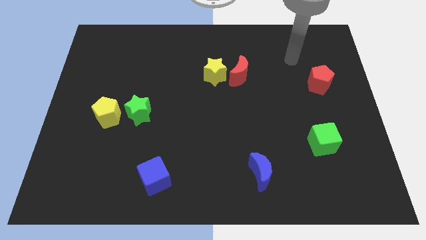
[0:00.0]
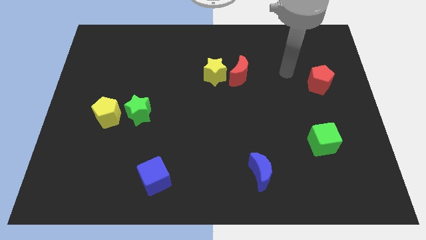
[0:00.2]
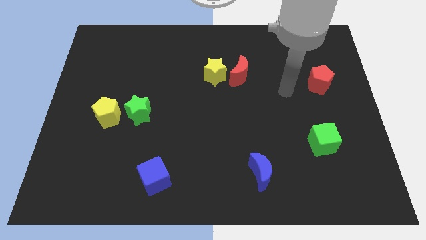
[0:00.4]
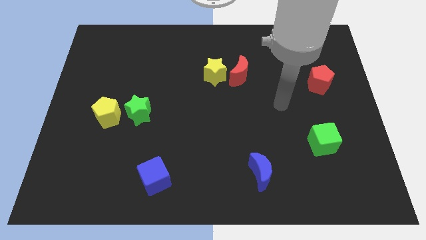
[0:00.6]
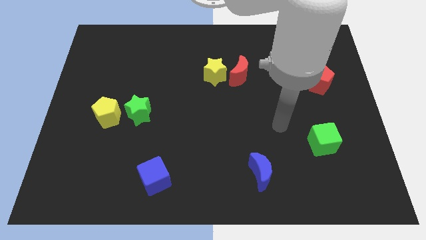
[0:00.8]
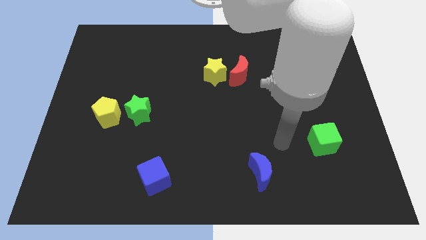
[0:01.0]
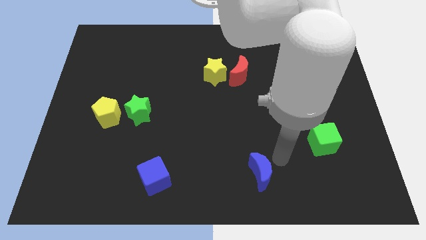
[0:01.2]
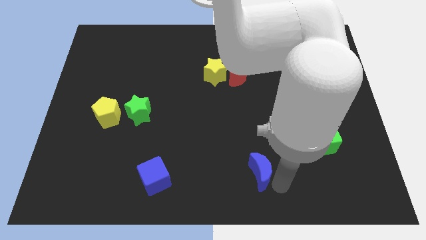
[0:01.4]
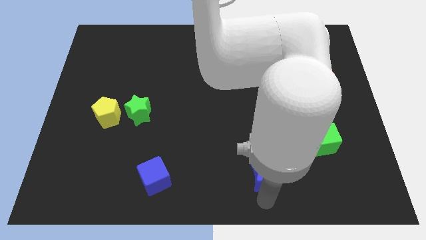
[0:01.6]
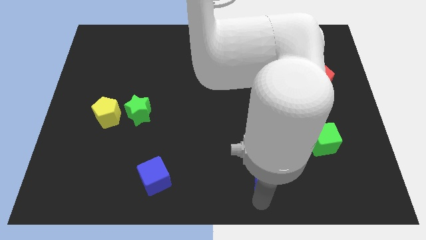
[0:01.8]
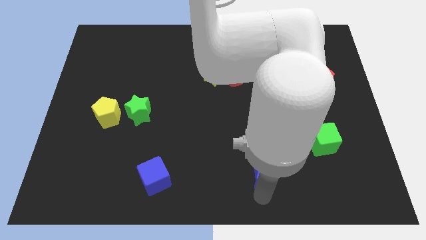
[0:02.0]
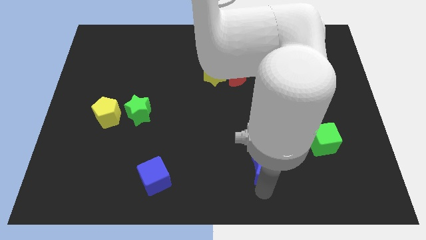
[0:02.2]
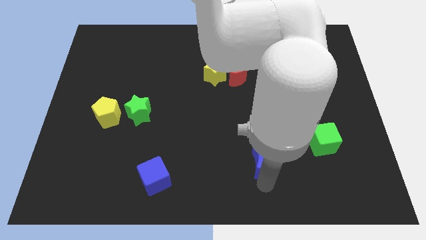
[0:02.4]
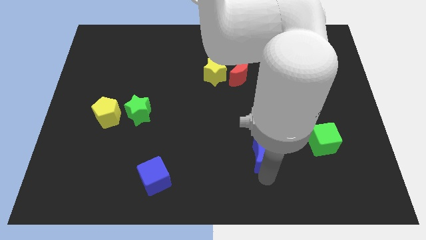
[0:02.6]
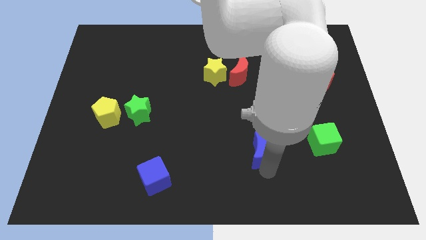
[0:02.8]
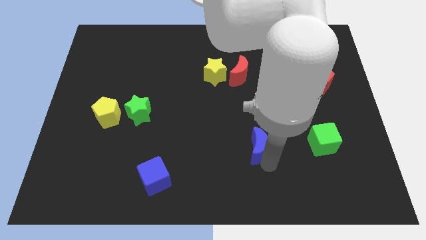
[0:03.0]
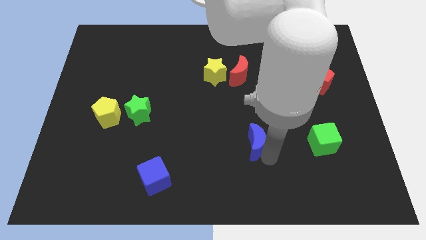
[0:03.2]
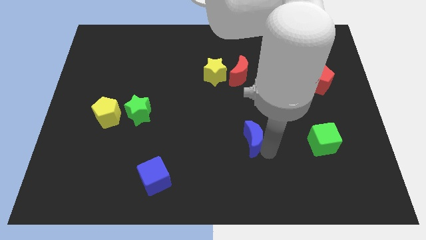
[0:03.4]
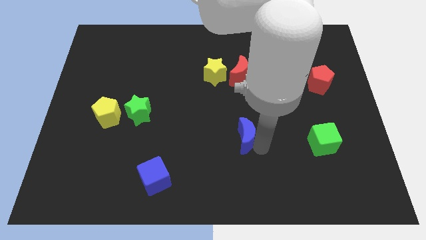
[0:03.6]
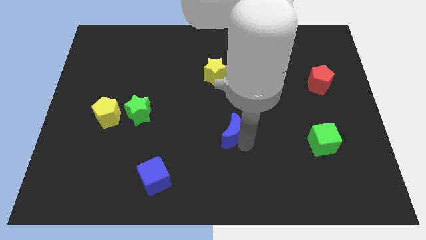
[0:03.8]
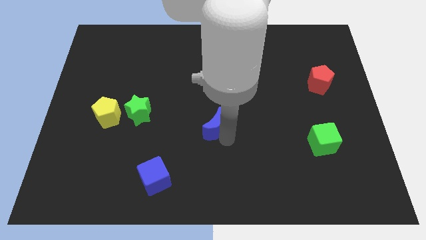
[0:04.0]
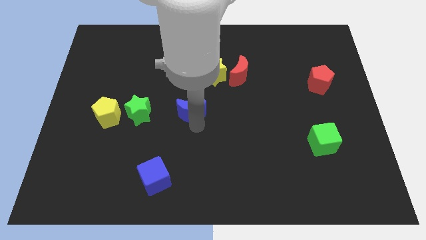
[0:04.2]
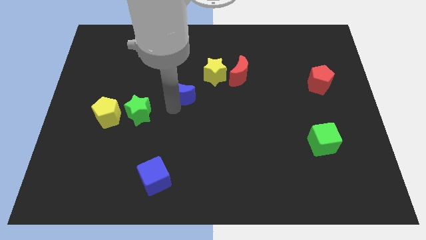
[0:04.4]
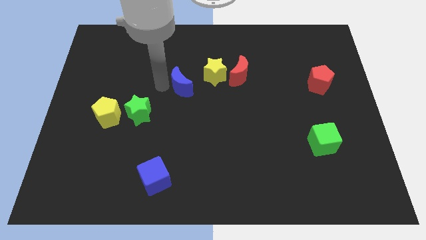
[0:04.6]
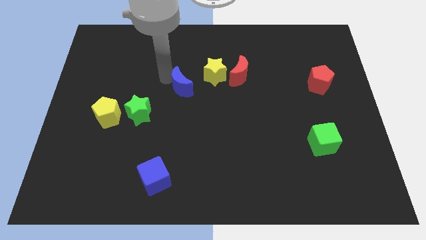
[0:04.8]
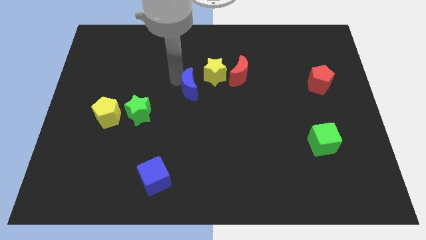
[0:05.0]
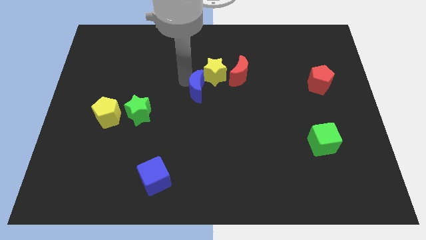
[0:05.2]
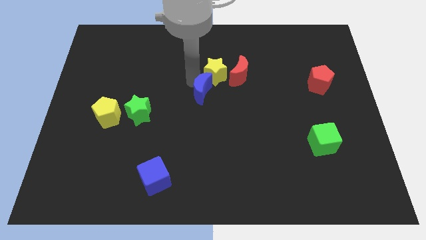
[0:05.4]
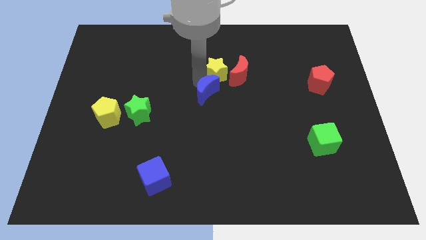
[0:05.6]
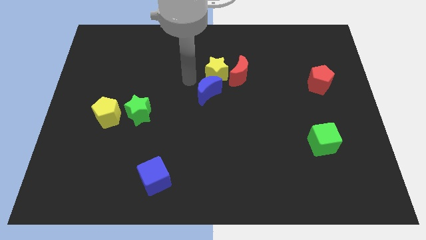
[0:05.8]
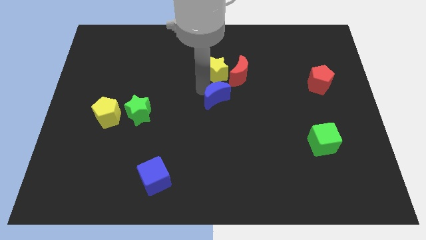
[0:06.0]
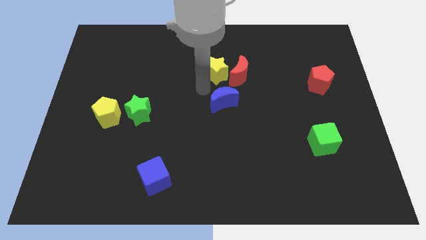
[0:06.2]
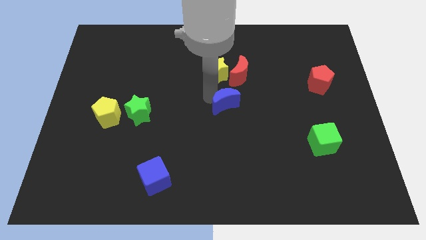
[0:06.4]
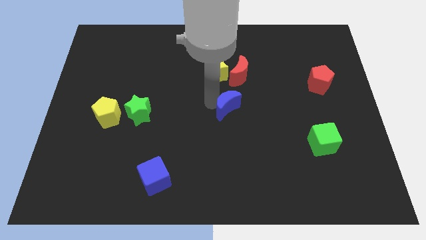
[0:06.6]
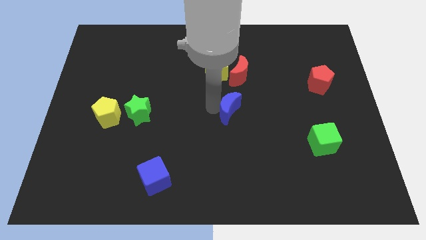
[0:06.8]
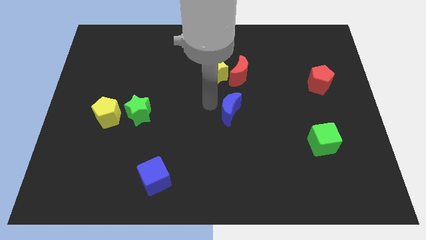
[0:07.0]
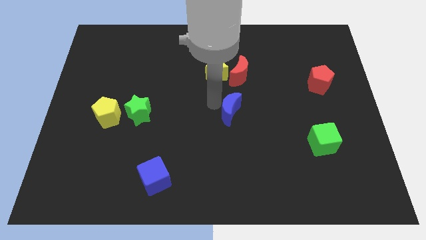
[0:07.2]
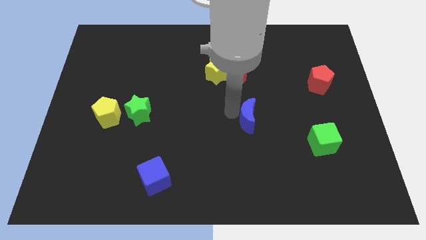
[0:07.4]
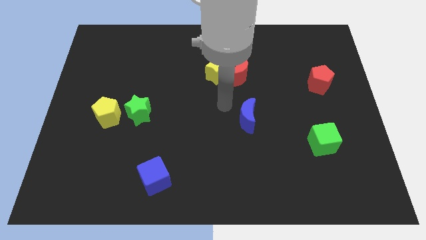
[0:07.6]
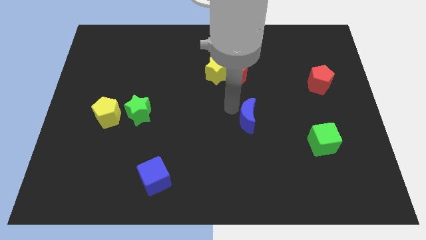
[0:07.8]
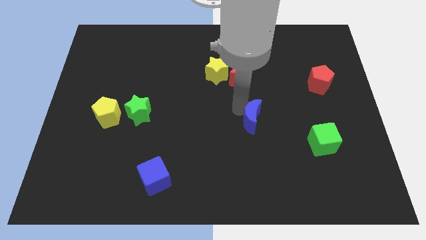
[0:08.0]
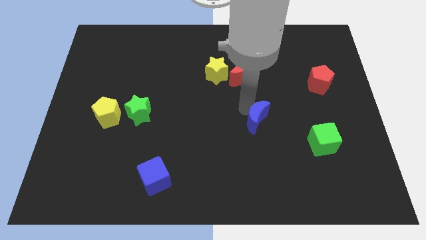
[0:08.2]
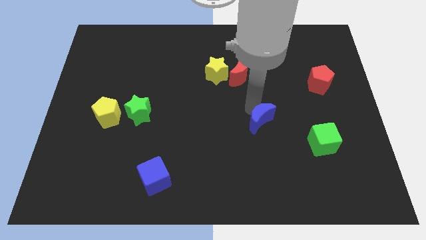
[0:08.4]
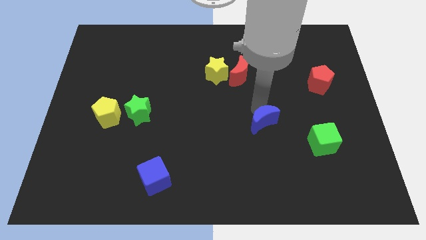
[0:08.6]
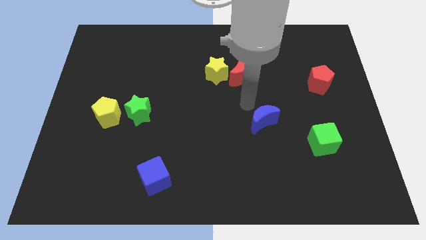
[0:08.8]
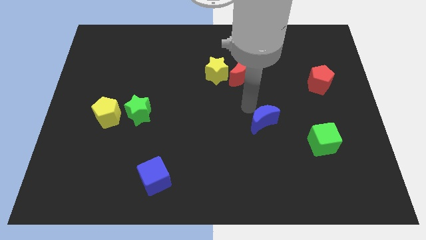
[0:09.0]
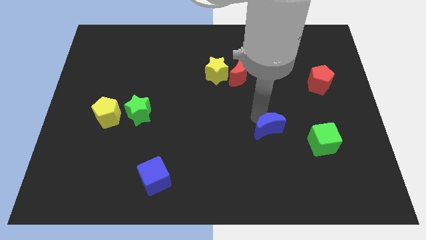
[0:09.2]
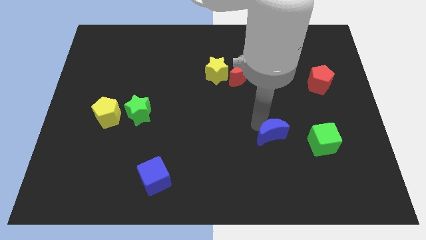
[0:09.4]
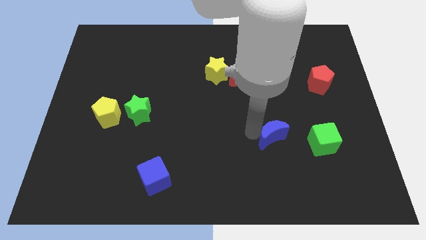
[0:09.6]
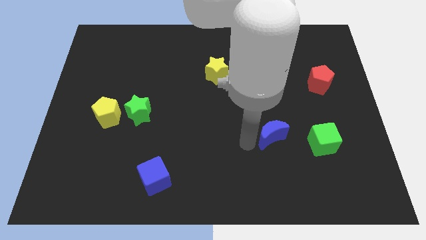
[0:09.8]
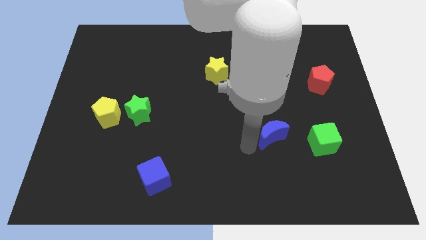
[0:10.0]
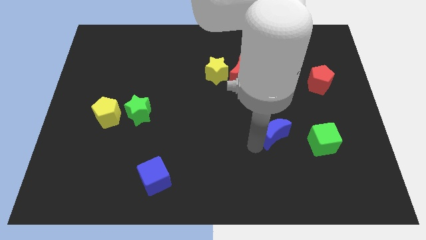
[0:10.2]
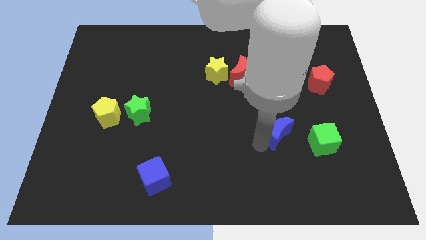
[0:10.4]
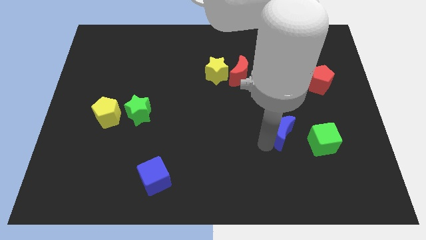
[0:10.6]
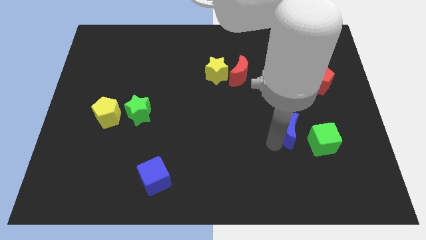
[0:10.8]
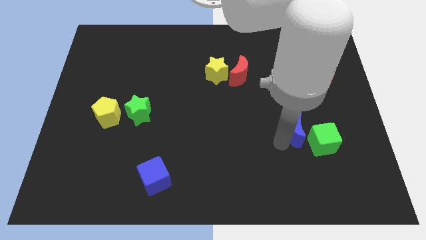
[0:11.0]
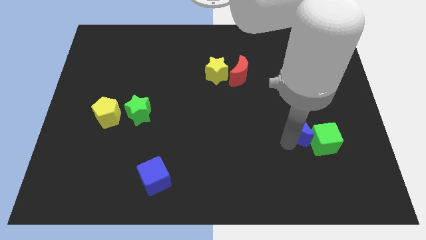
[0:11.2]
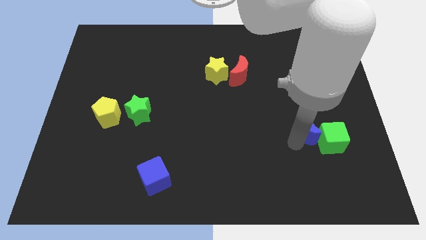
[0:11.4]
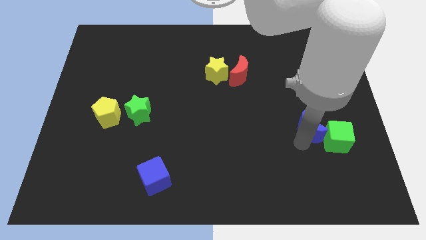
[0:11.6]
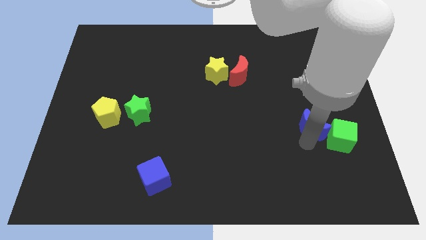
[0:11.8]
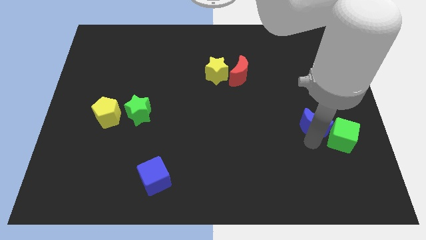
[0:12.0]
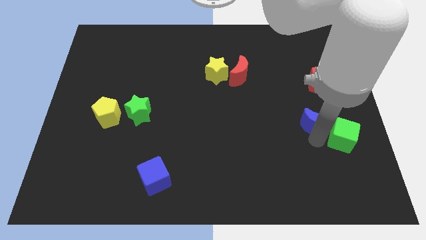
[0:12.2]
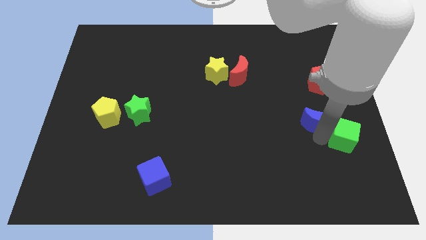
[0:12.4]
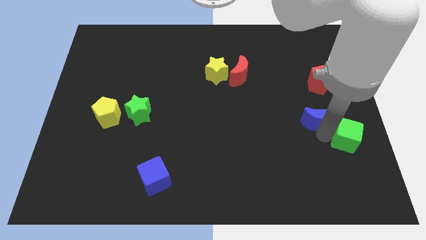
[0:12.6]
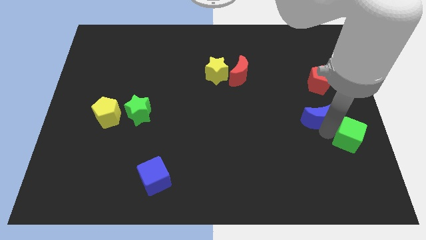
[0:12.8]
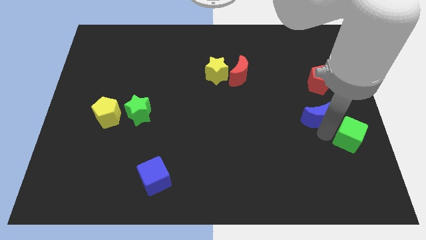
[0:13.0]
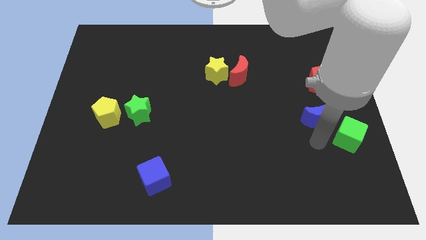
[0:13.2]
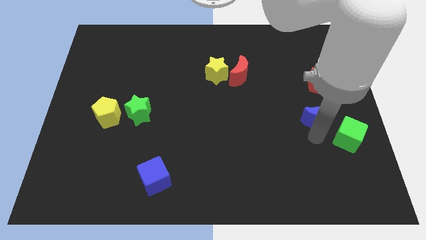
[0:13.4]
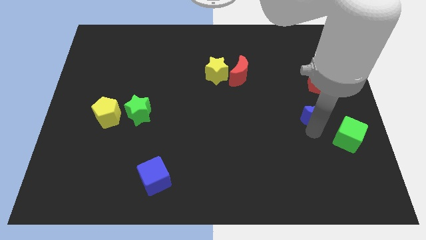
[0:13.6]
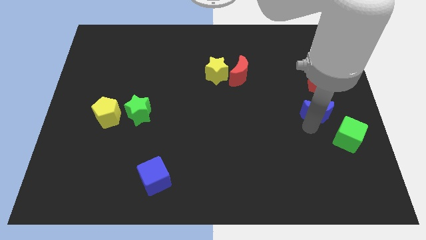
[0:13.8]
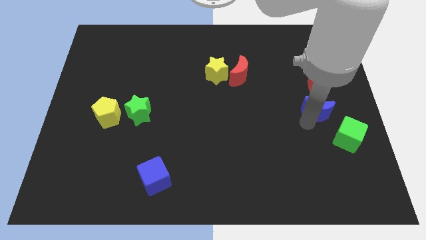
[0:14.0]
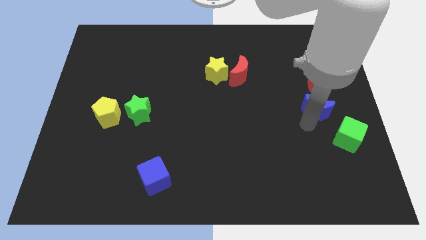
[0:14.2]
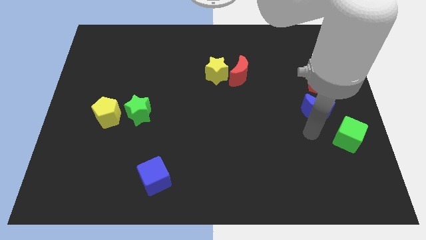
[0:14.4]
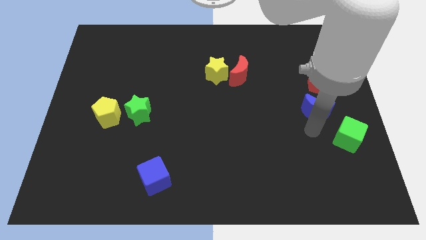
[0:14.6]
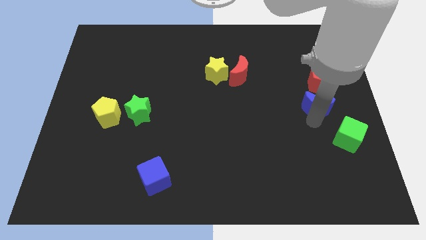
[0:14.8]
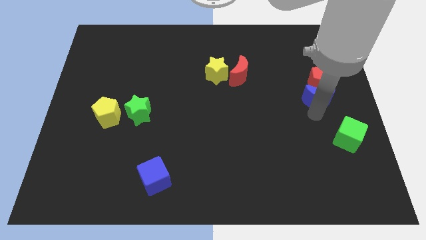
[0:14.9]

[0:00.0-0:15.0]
put the blue moon next to the red pentagon
